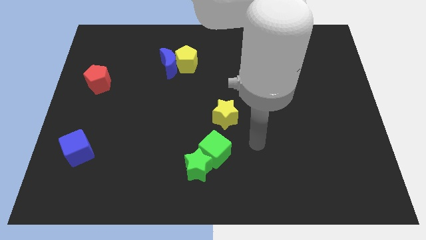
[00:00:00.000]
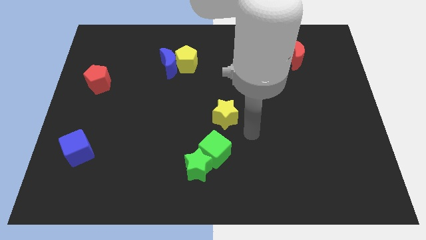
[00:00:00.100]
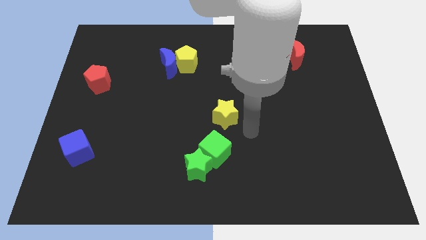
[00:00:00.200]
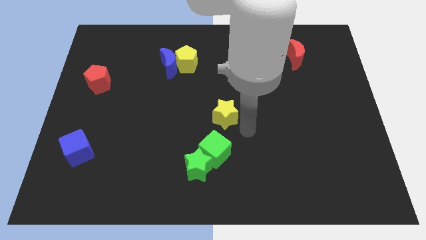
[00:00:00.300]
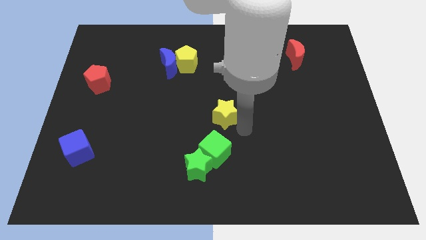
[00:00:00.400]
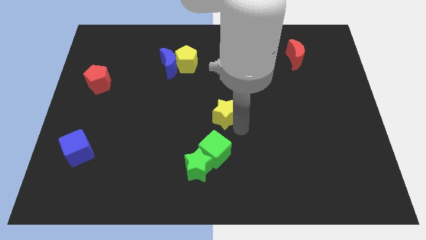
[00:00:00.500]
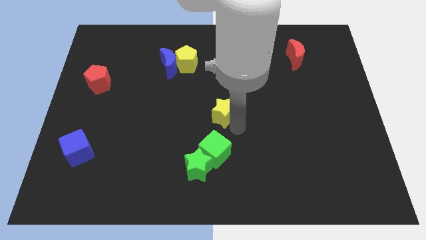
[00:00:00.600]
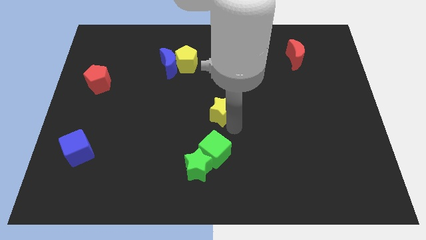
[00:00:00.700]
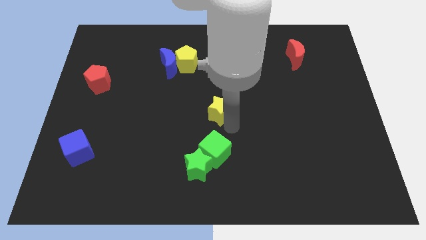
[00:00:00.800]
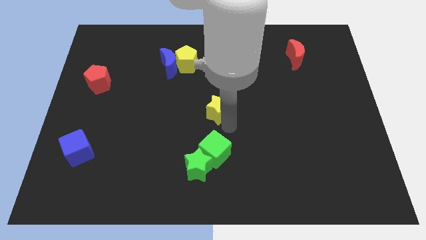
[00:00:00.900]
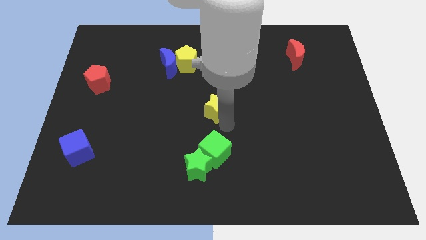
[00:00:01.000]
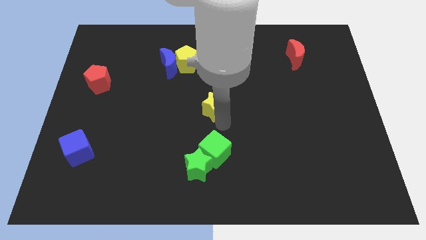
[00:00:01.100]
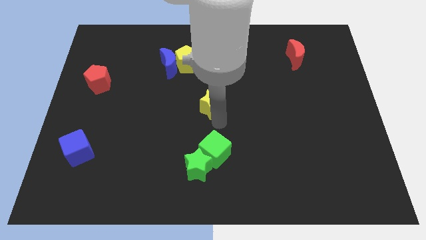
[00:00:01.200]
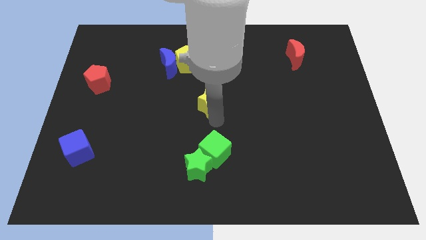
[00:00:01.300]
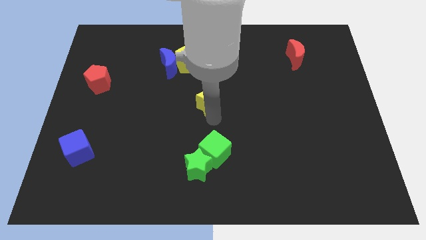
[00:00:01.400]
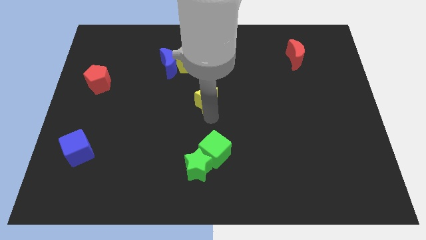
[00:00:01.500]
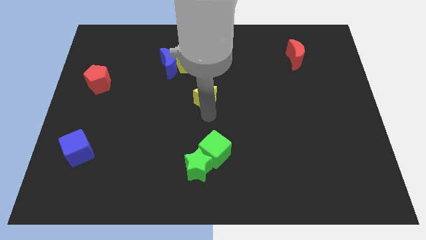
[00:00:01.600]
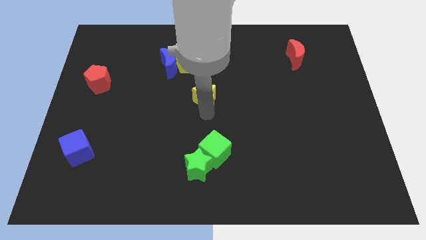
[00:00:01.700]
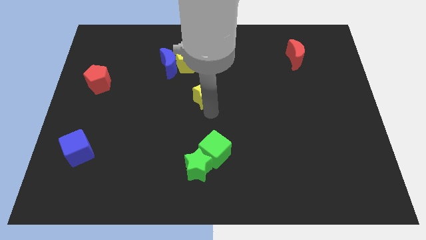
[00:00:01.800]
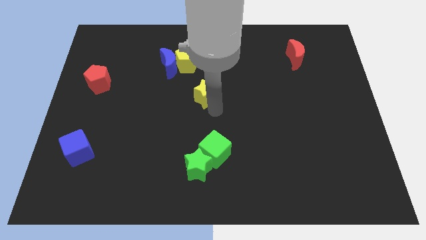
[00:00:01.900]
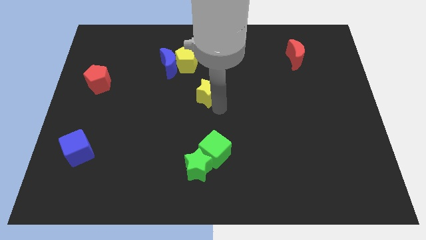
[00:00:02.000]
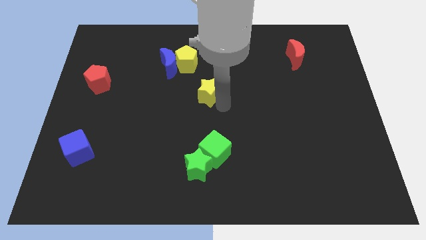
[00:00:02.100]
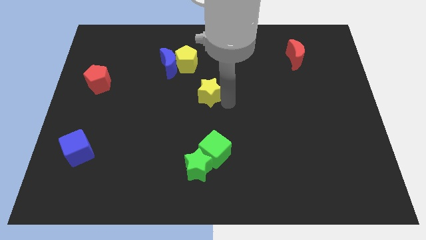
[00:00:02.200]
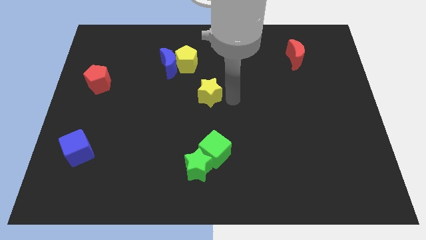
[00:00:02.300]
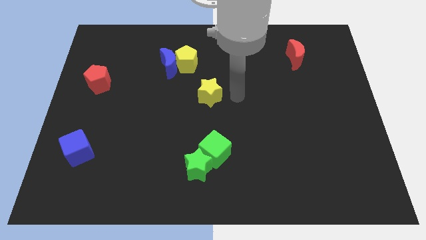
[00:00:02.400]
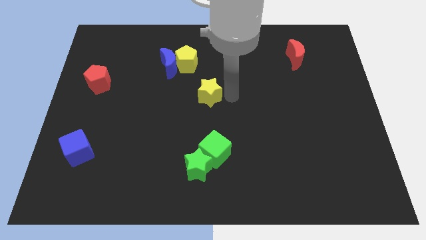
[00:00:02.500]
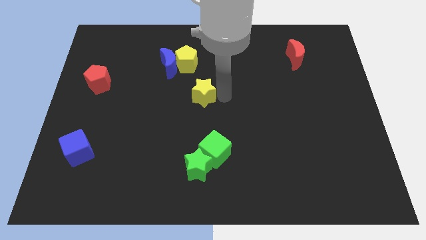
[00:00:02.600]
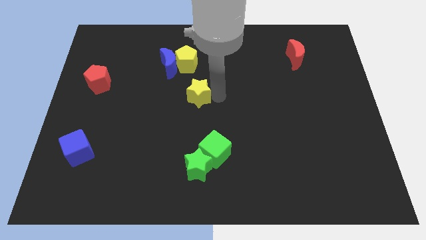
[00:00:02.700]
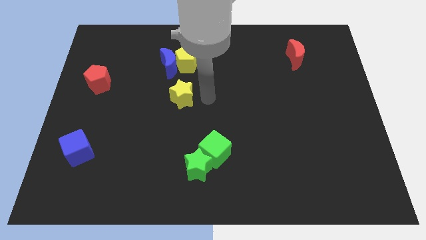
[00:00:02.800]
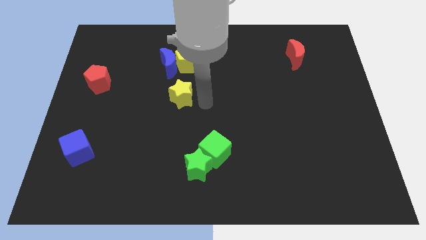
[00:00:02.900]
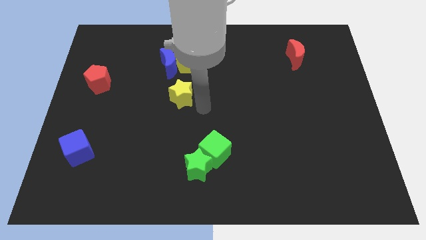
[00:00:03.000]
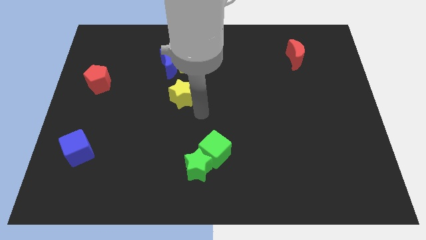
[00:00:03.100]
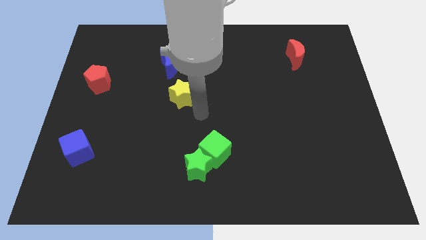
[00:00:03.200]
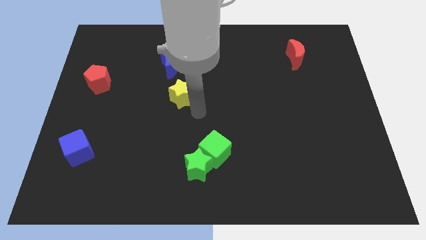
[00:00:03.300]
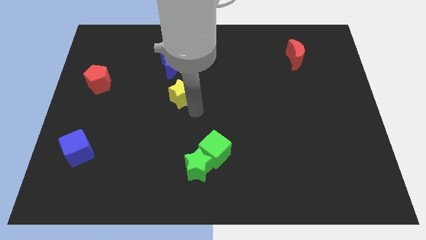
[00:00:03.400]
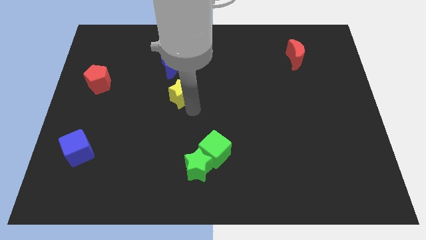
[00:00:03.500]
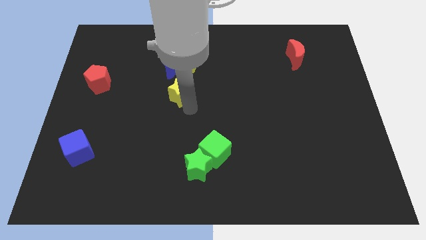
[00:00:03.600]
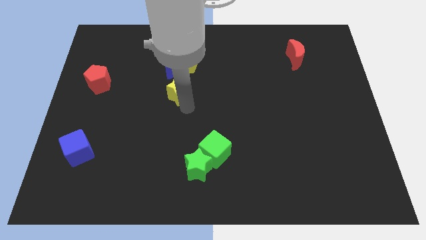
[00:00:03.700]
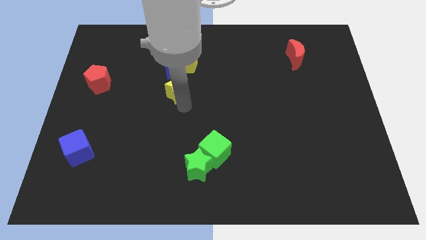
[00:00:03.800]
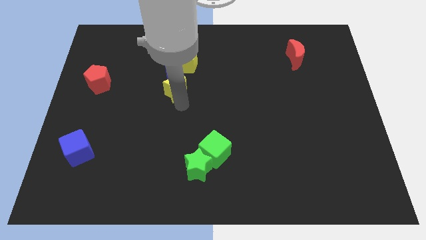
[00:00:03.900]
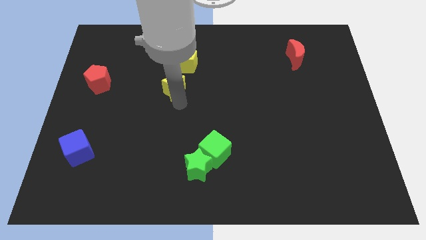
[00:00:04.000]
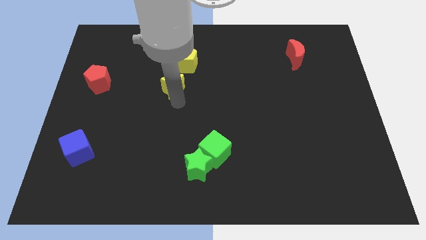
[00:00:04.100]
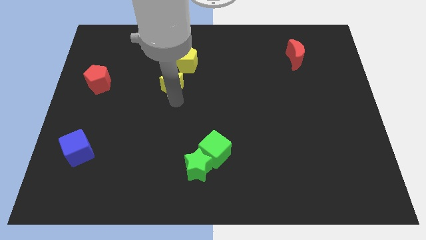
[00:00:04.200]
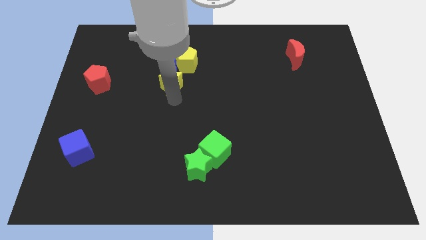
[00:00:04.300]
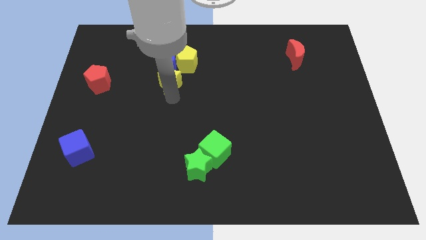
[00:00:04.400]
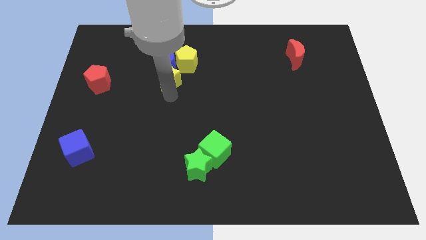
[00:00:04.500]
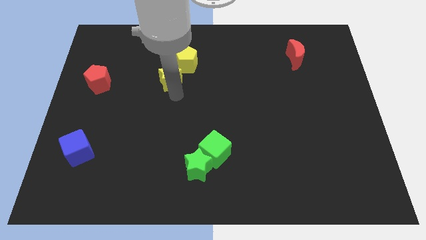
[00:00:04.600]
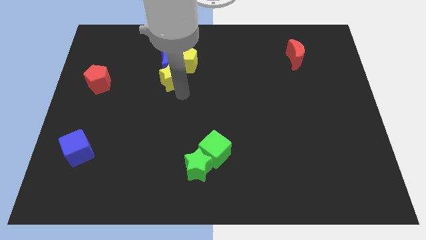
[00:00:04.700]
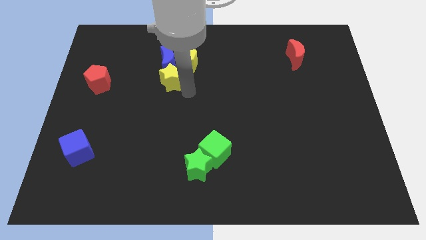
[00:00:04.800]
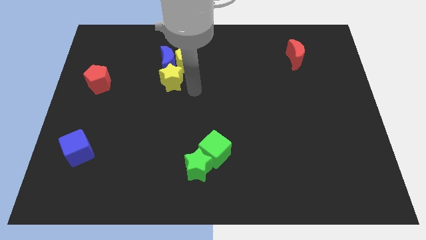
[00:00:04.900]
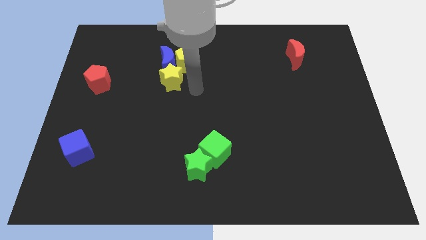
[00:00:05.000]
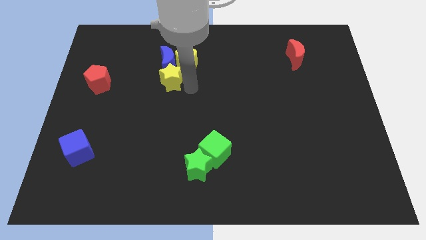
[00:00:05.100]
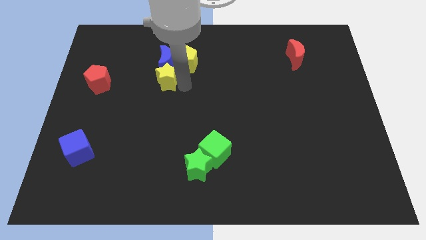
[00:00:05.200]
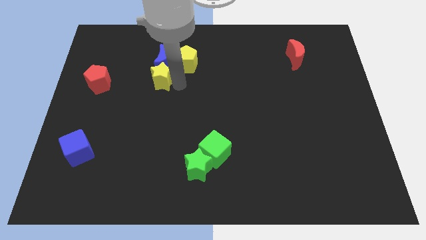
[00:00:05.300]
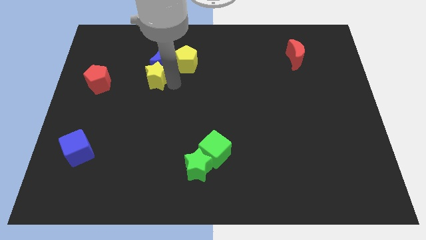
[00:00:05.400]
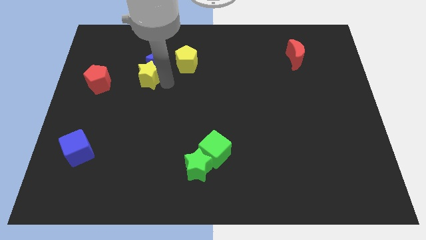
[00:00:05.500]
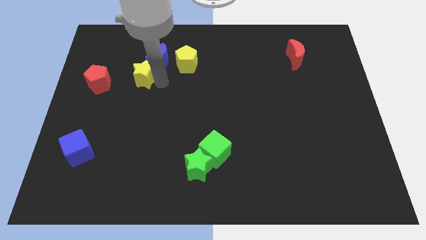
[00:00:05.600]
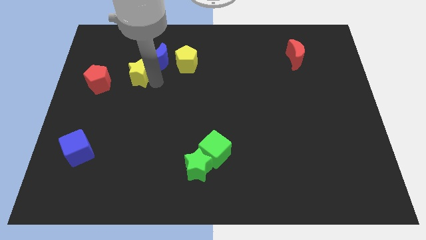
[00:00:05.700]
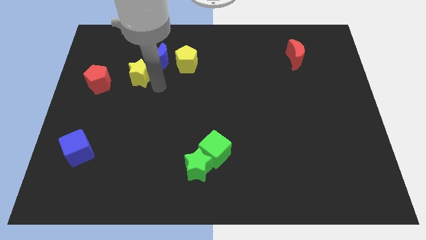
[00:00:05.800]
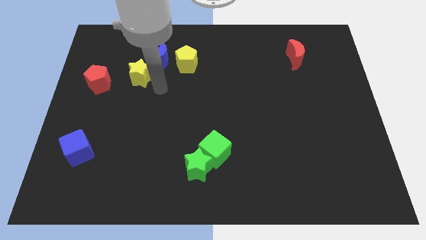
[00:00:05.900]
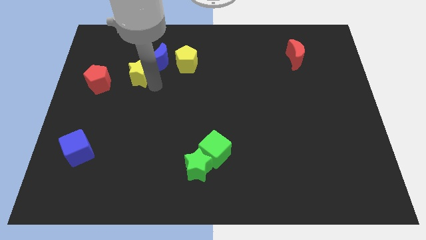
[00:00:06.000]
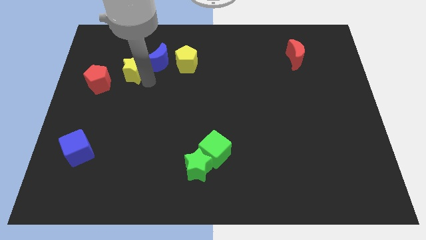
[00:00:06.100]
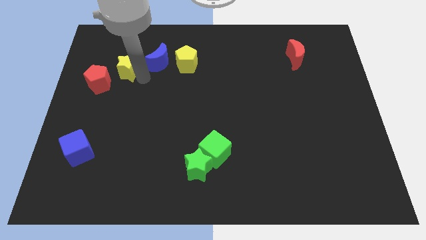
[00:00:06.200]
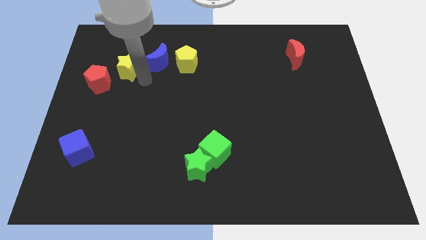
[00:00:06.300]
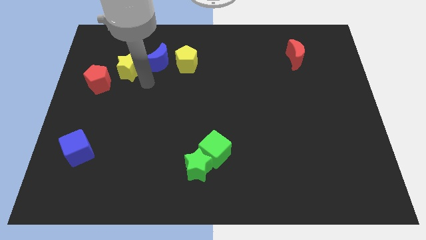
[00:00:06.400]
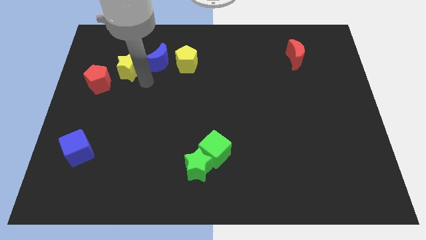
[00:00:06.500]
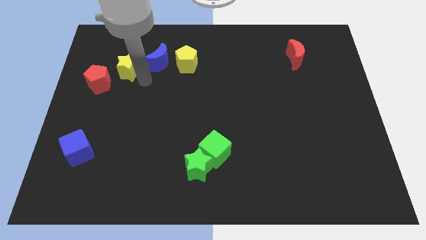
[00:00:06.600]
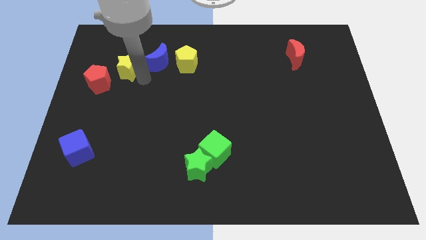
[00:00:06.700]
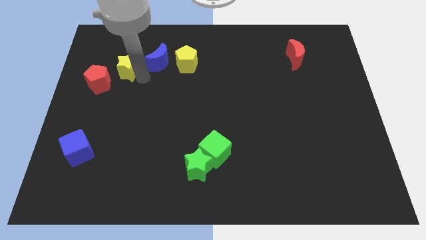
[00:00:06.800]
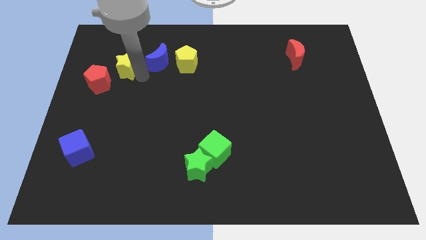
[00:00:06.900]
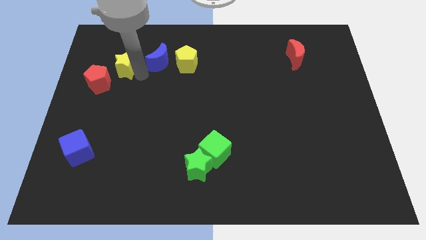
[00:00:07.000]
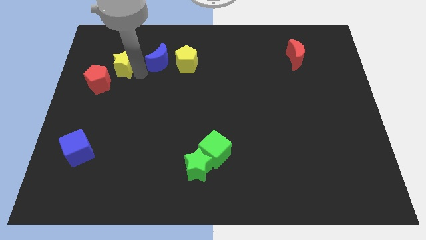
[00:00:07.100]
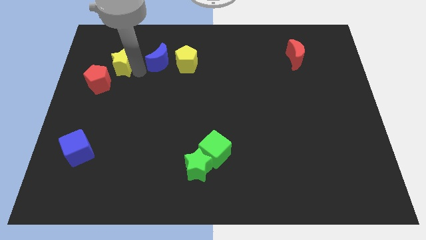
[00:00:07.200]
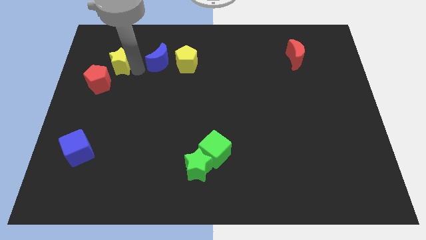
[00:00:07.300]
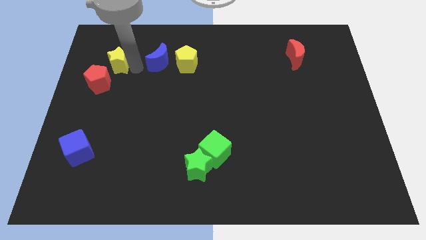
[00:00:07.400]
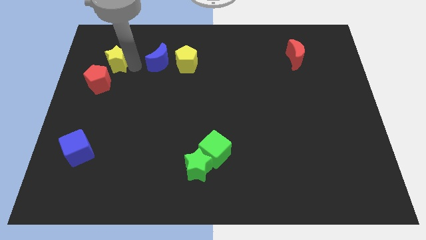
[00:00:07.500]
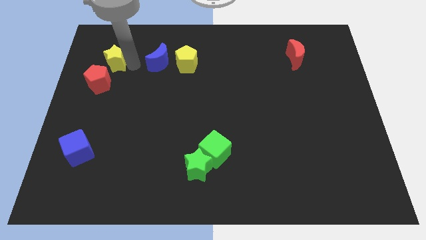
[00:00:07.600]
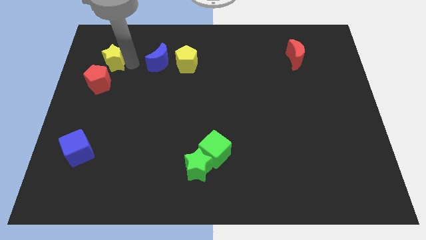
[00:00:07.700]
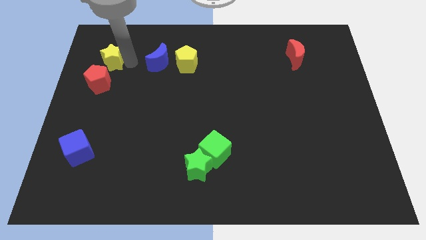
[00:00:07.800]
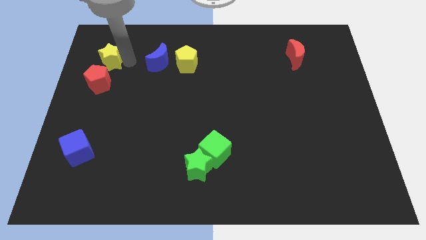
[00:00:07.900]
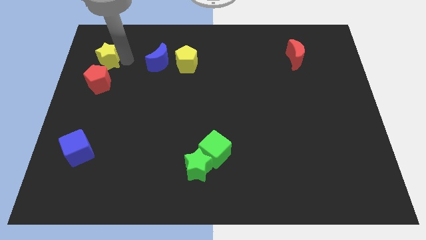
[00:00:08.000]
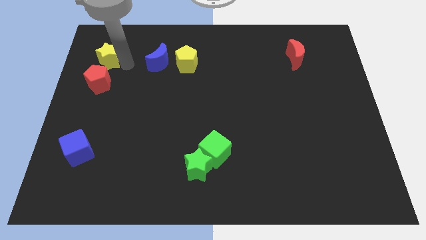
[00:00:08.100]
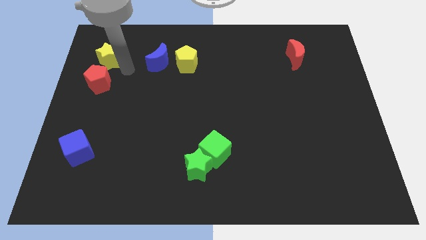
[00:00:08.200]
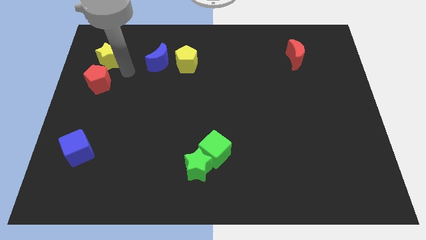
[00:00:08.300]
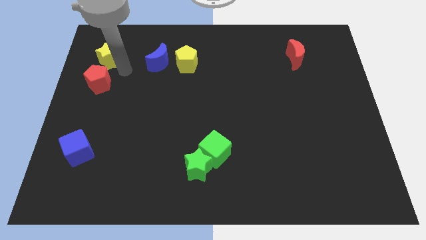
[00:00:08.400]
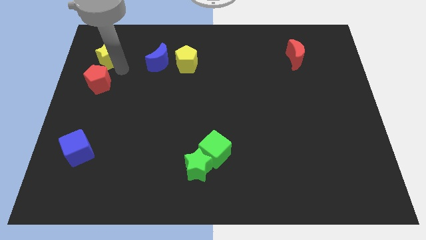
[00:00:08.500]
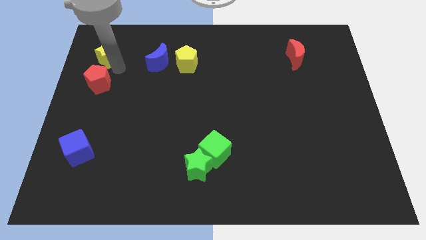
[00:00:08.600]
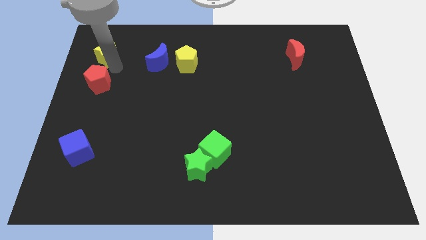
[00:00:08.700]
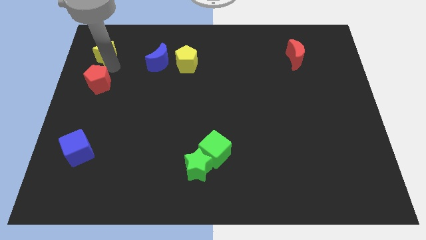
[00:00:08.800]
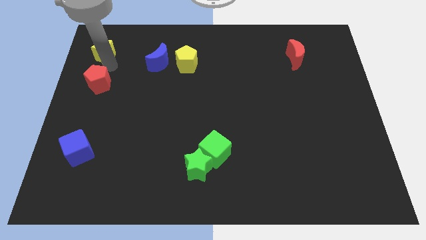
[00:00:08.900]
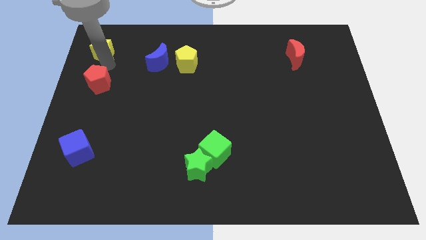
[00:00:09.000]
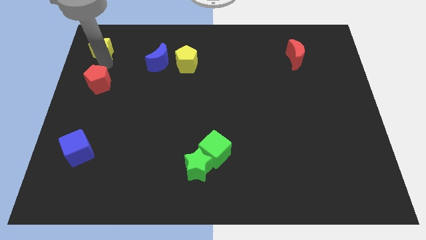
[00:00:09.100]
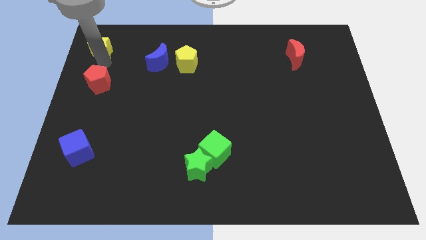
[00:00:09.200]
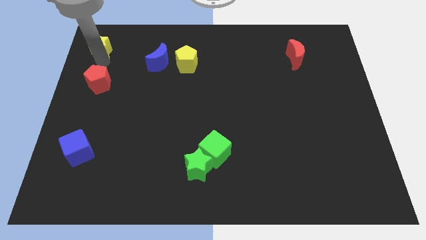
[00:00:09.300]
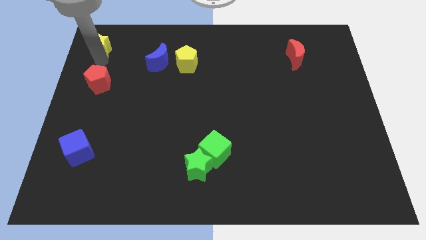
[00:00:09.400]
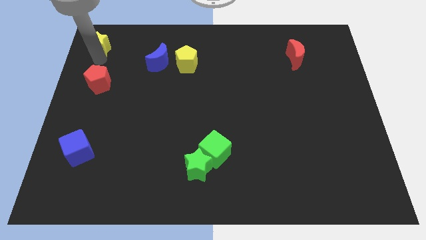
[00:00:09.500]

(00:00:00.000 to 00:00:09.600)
put the yellow star to the top left corner
